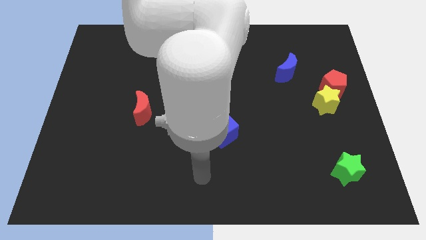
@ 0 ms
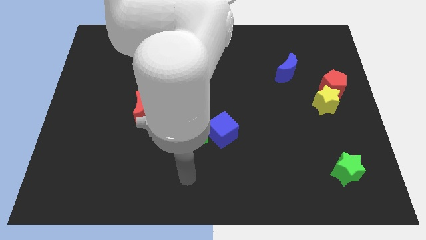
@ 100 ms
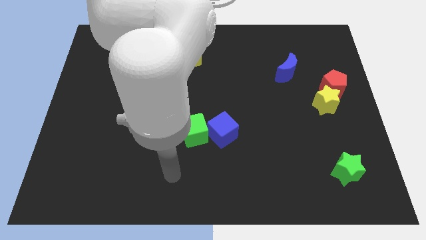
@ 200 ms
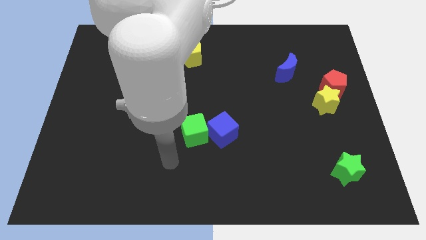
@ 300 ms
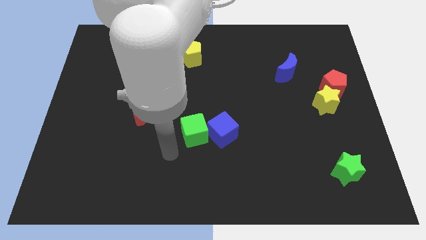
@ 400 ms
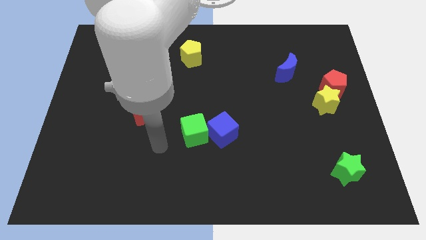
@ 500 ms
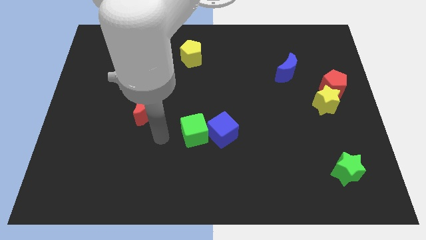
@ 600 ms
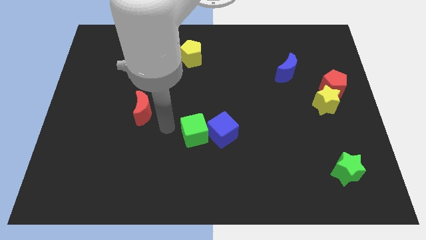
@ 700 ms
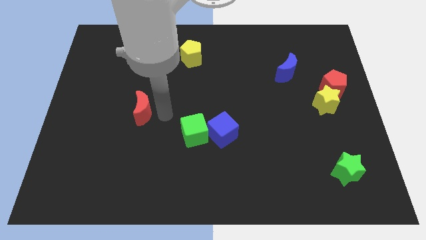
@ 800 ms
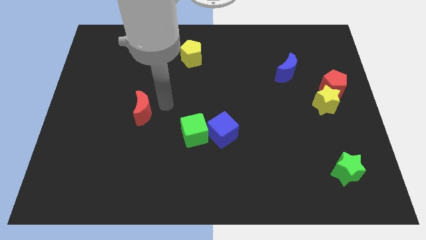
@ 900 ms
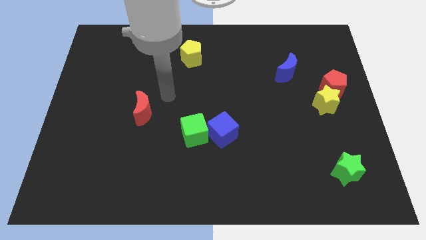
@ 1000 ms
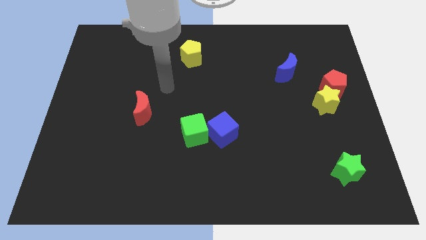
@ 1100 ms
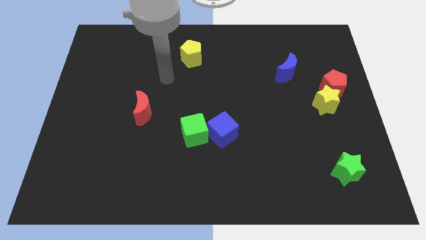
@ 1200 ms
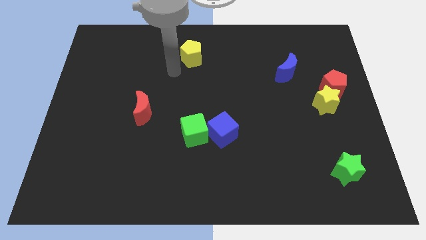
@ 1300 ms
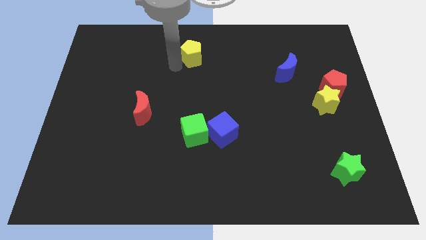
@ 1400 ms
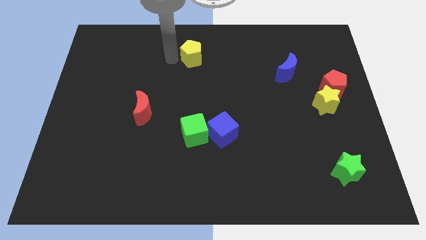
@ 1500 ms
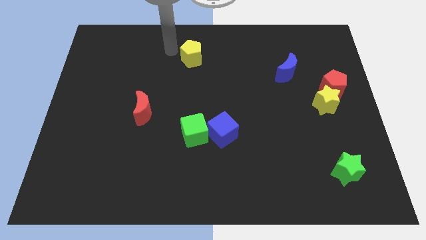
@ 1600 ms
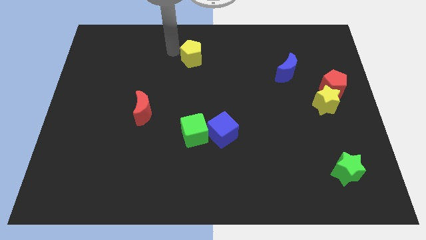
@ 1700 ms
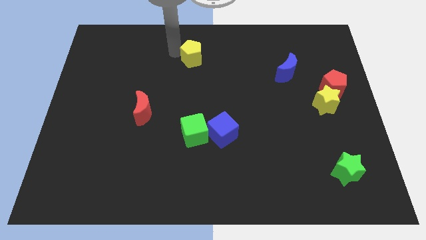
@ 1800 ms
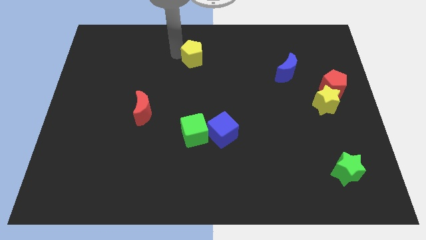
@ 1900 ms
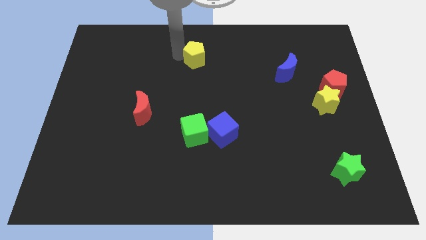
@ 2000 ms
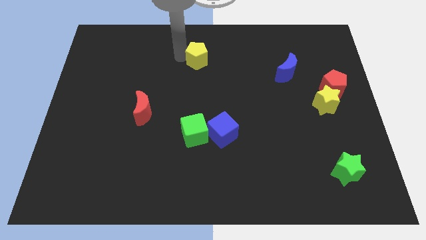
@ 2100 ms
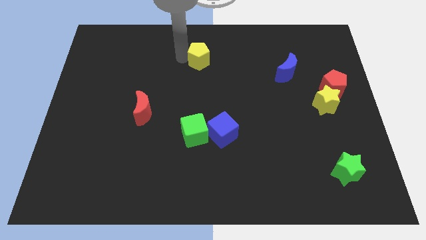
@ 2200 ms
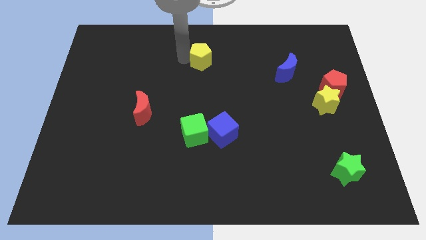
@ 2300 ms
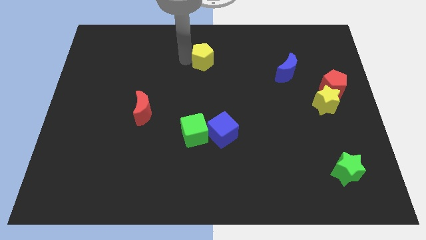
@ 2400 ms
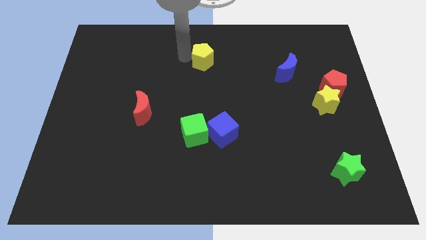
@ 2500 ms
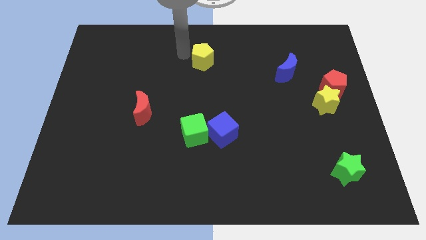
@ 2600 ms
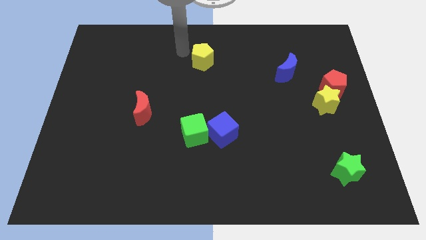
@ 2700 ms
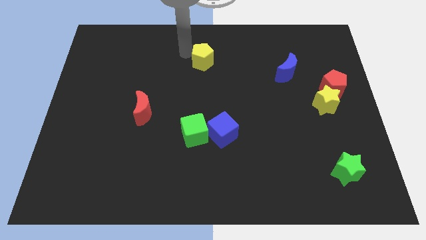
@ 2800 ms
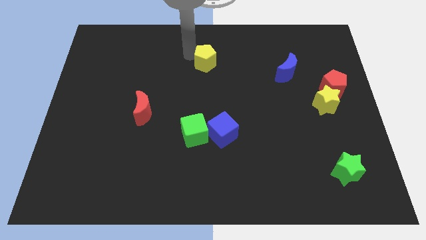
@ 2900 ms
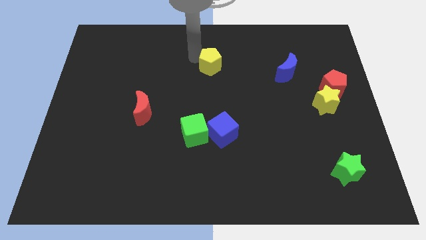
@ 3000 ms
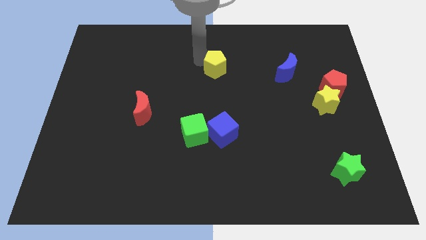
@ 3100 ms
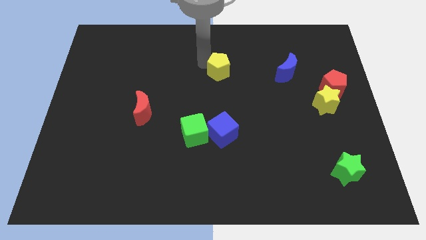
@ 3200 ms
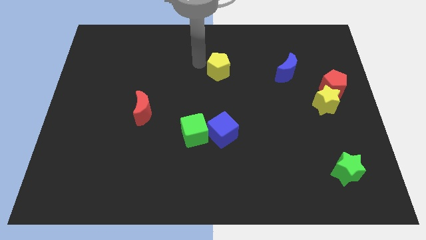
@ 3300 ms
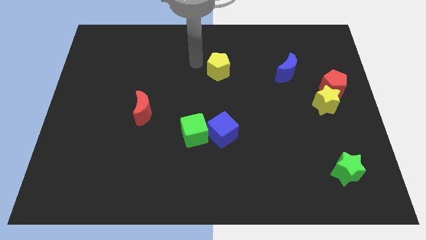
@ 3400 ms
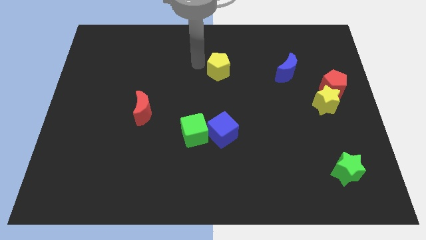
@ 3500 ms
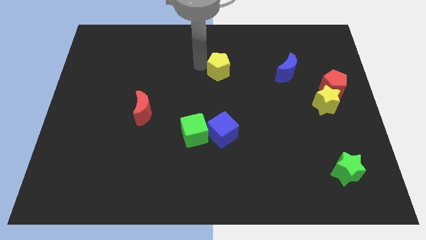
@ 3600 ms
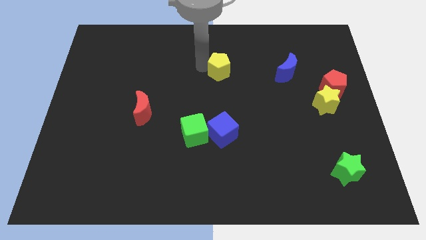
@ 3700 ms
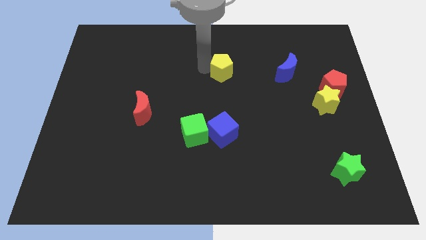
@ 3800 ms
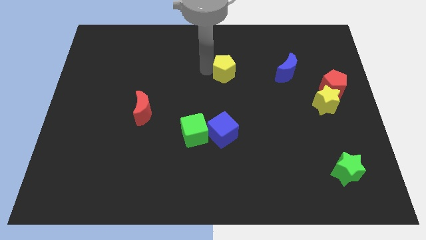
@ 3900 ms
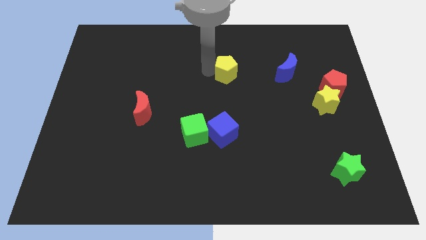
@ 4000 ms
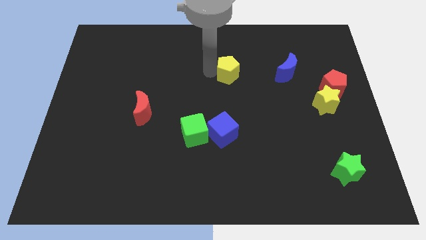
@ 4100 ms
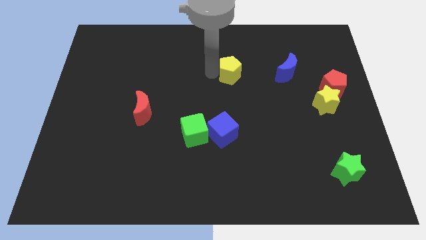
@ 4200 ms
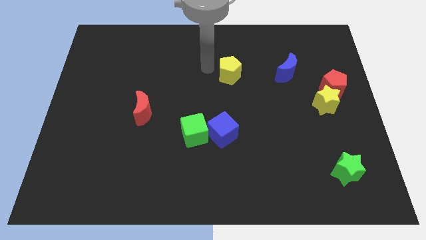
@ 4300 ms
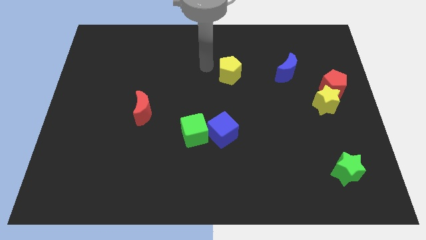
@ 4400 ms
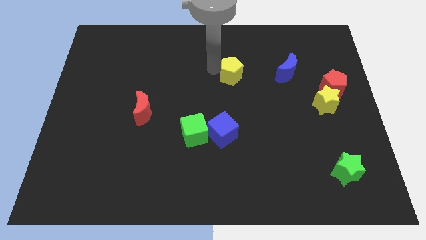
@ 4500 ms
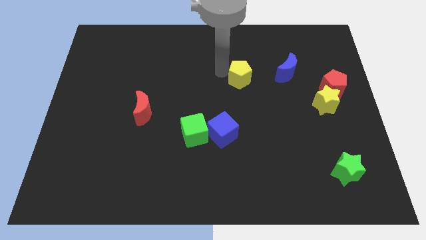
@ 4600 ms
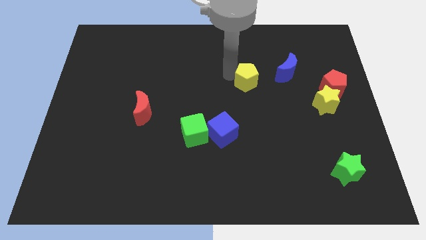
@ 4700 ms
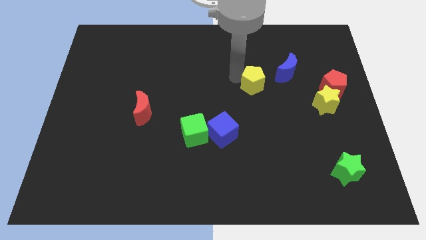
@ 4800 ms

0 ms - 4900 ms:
slide the yellow pentagon to the bottom left of the blue moon

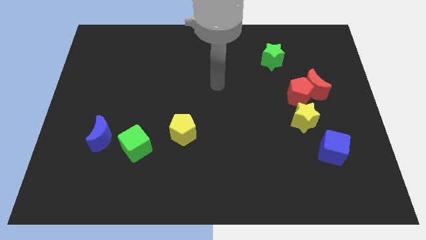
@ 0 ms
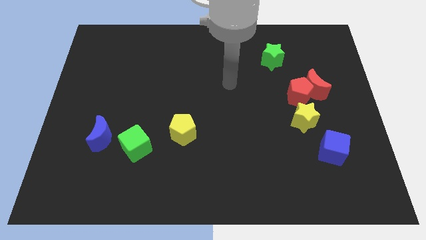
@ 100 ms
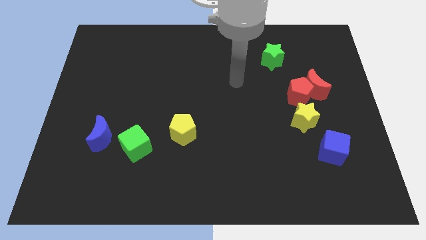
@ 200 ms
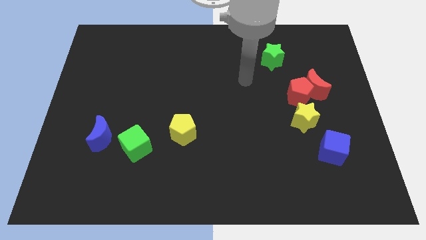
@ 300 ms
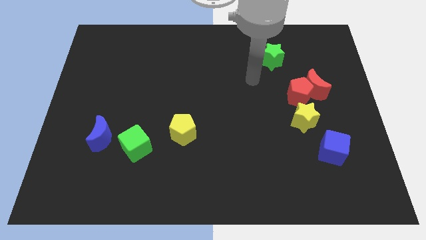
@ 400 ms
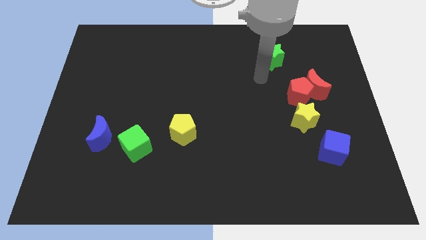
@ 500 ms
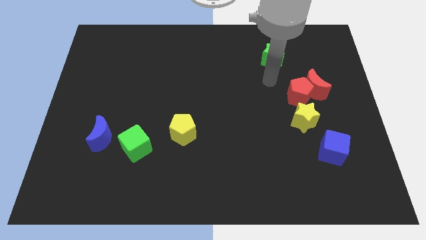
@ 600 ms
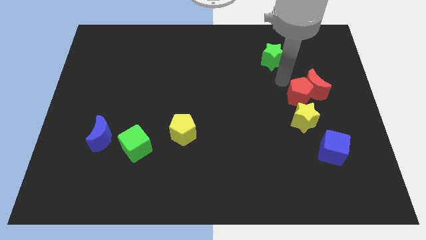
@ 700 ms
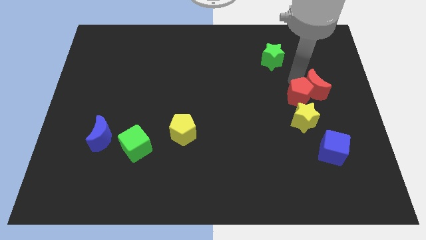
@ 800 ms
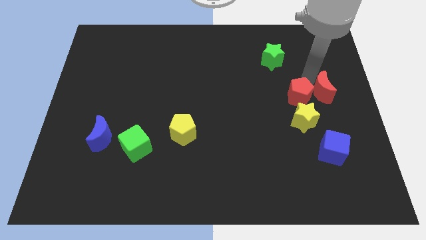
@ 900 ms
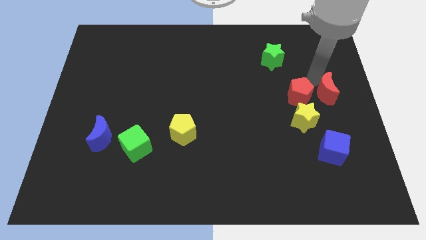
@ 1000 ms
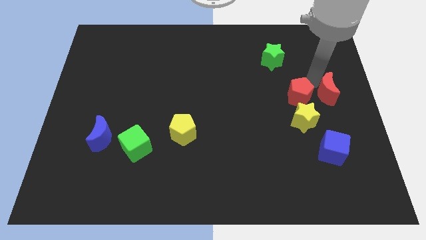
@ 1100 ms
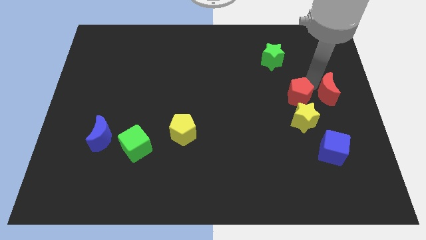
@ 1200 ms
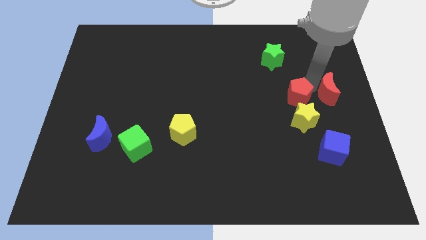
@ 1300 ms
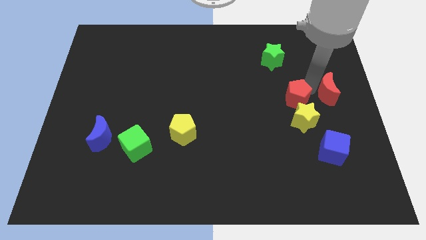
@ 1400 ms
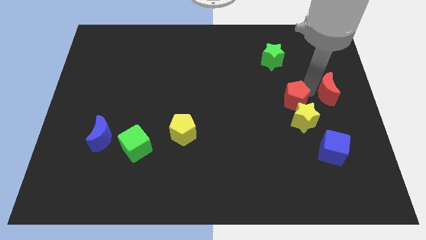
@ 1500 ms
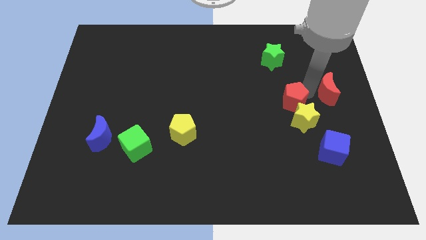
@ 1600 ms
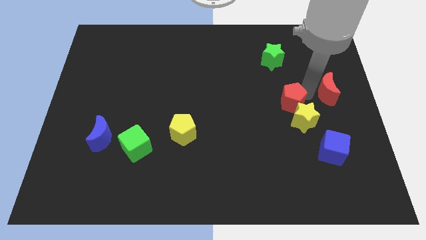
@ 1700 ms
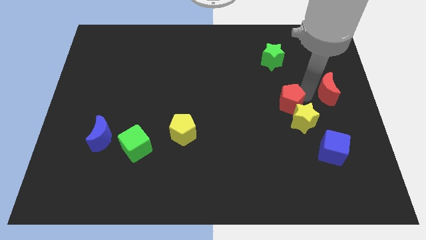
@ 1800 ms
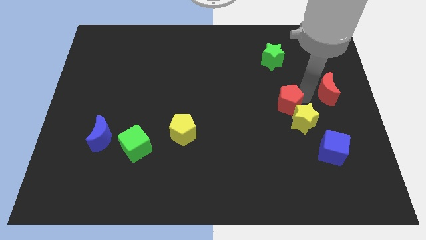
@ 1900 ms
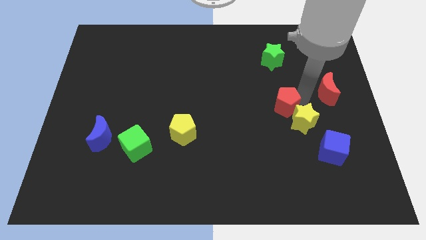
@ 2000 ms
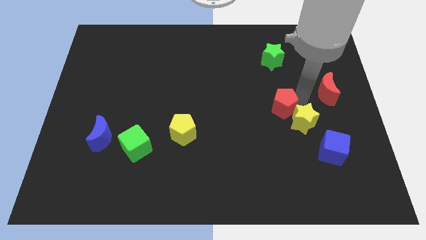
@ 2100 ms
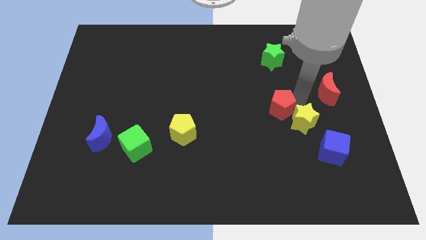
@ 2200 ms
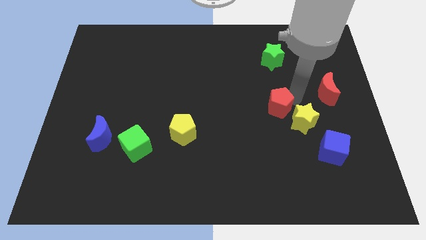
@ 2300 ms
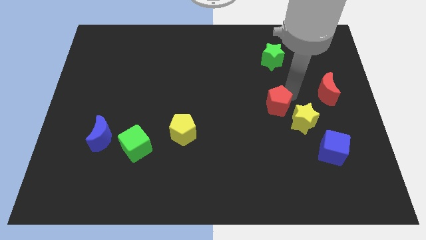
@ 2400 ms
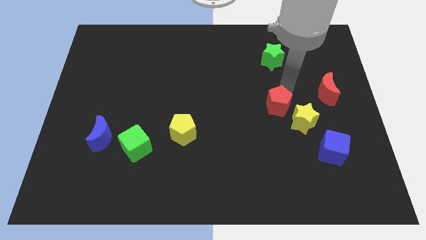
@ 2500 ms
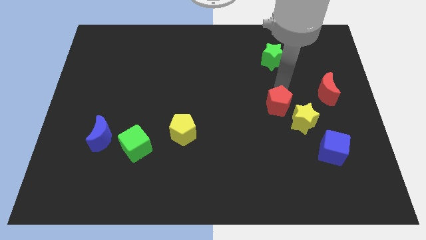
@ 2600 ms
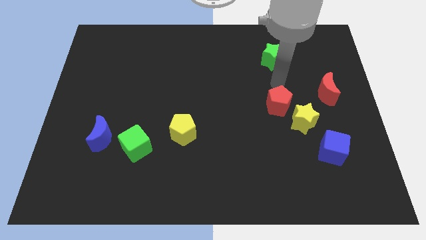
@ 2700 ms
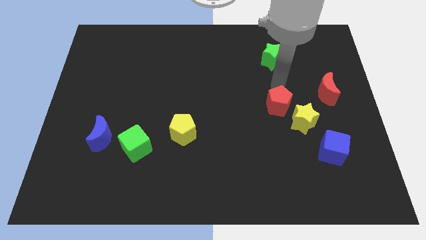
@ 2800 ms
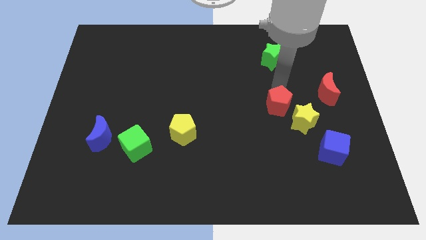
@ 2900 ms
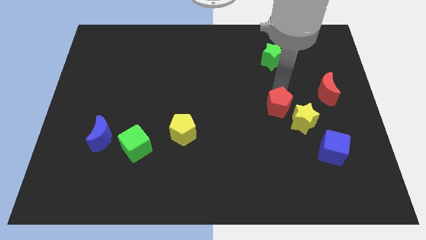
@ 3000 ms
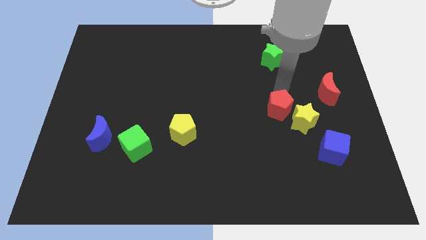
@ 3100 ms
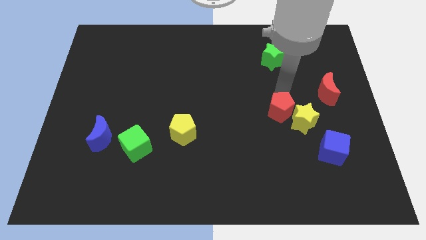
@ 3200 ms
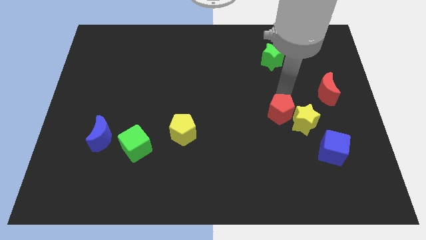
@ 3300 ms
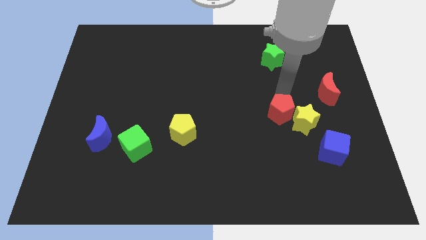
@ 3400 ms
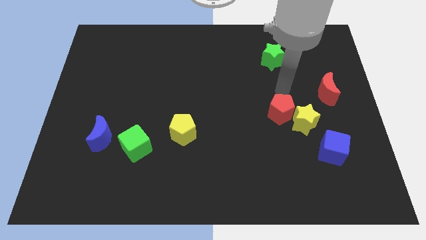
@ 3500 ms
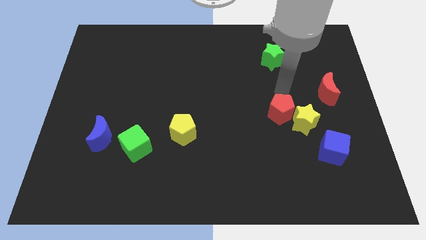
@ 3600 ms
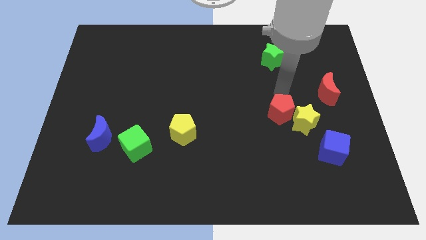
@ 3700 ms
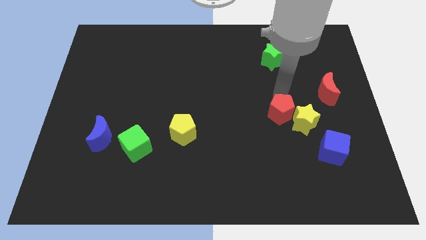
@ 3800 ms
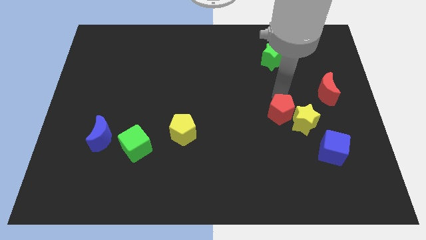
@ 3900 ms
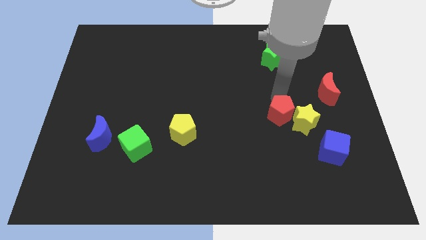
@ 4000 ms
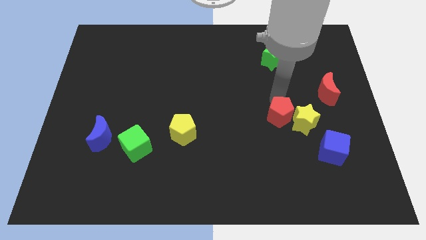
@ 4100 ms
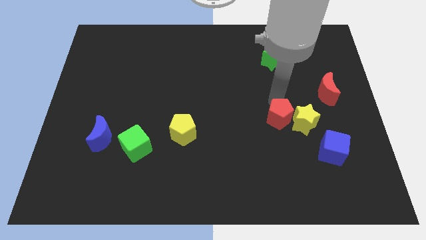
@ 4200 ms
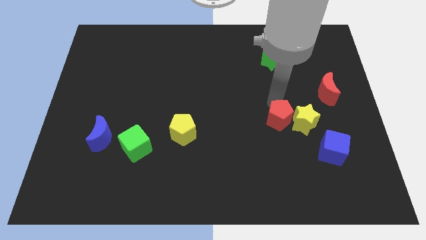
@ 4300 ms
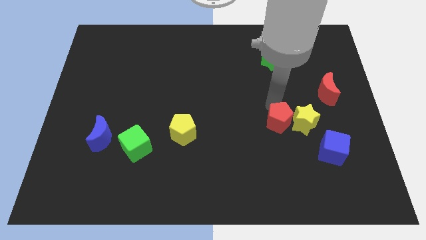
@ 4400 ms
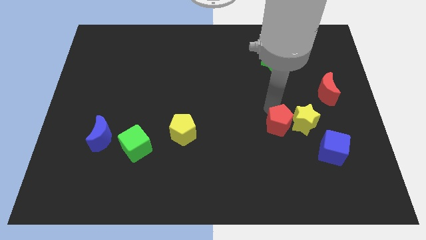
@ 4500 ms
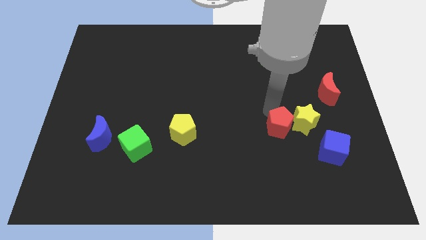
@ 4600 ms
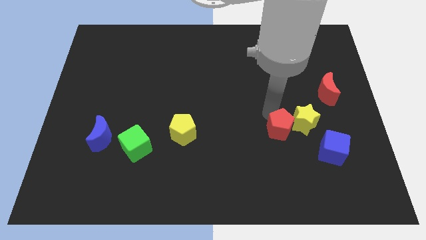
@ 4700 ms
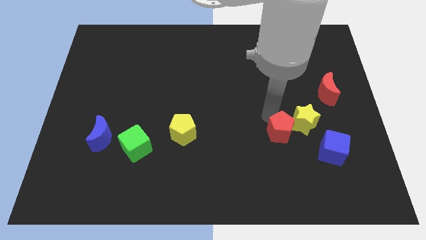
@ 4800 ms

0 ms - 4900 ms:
push the red pentagon left of the blue cube
